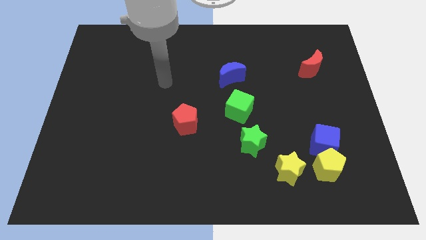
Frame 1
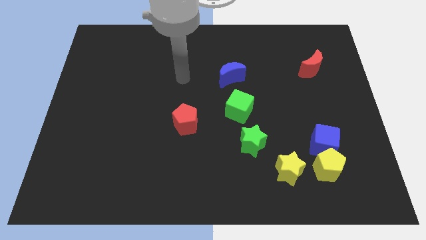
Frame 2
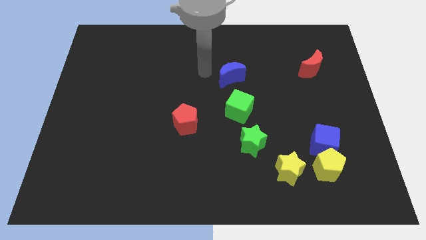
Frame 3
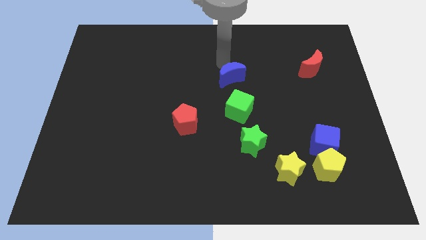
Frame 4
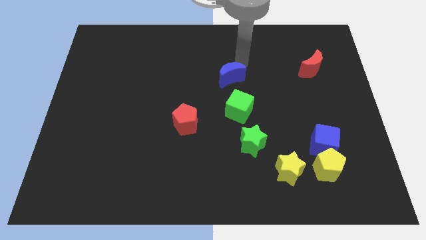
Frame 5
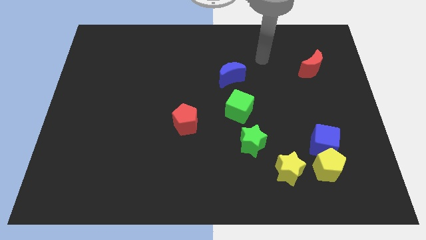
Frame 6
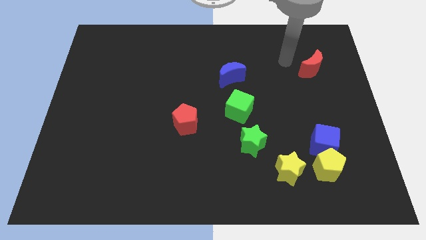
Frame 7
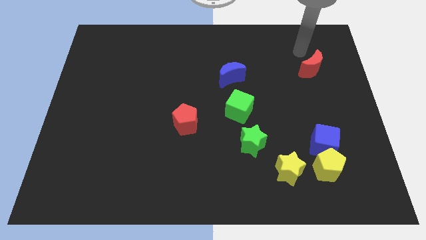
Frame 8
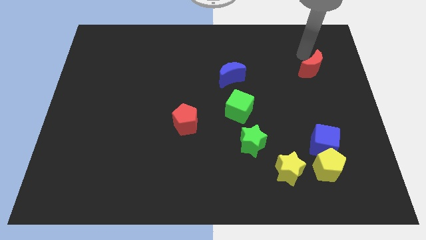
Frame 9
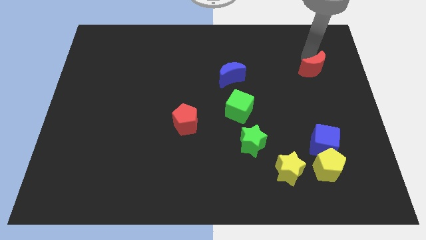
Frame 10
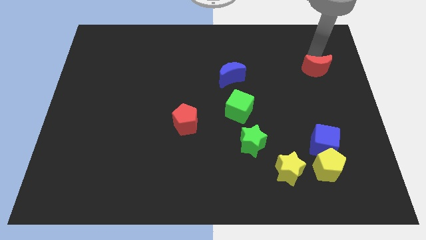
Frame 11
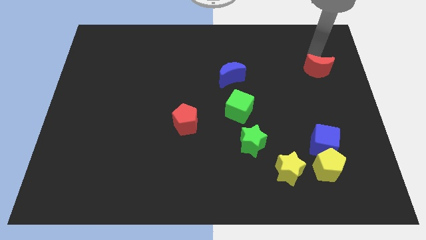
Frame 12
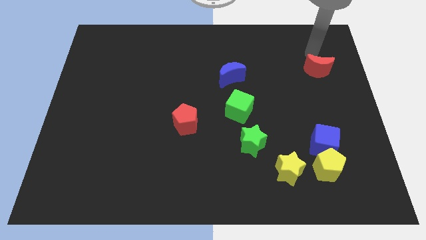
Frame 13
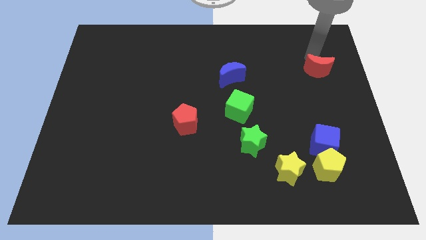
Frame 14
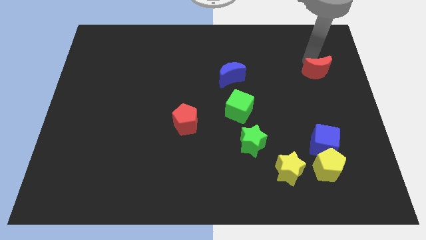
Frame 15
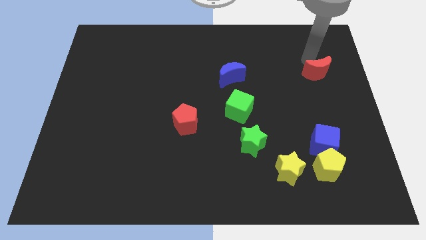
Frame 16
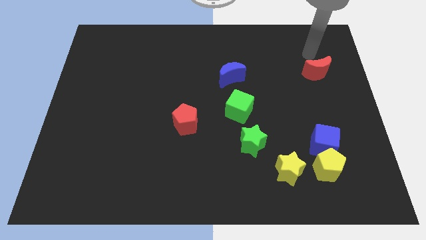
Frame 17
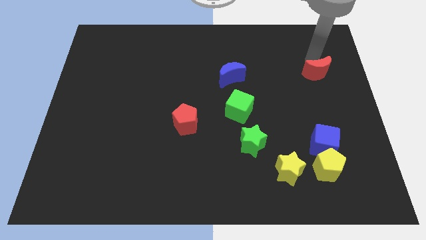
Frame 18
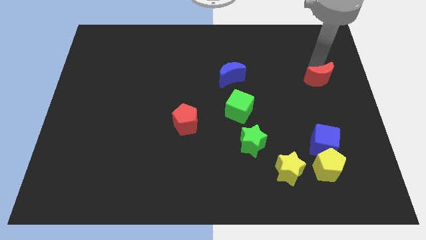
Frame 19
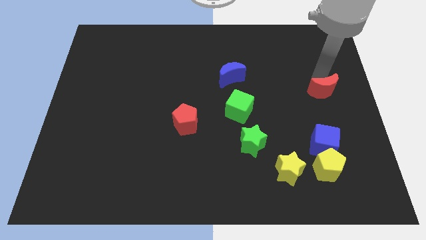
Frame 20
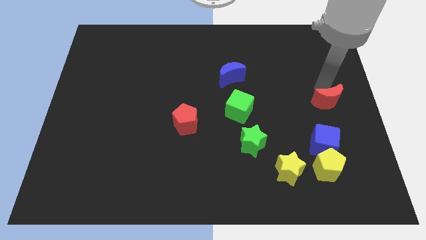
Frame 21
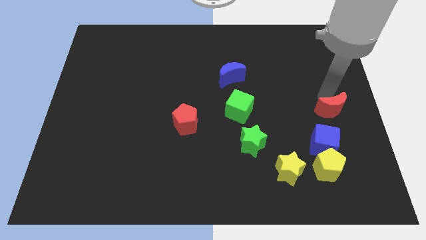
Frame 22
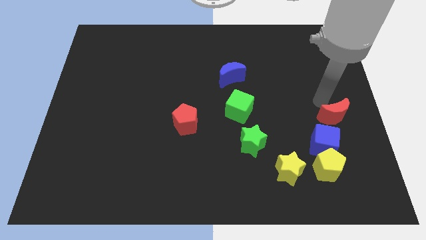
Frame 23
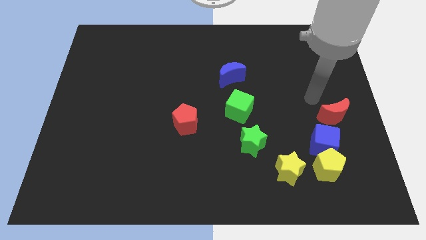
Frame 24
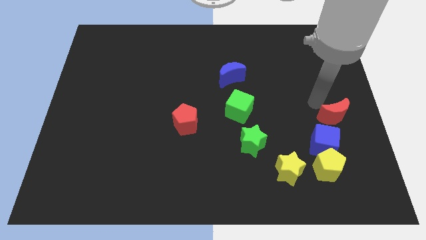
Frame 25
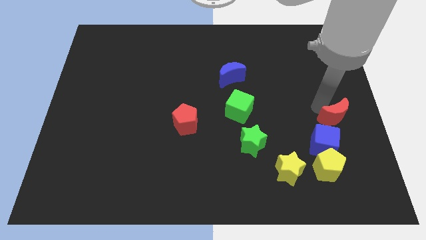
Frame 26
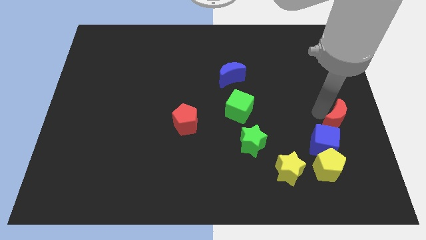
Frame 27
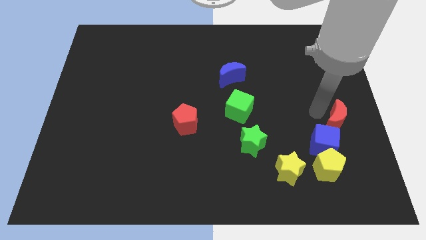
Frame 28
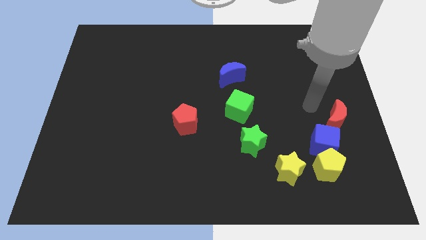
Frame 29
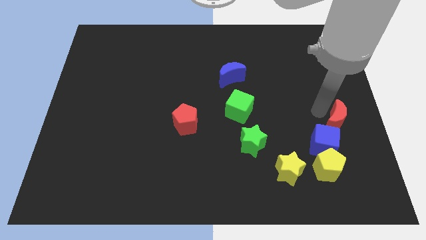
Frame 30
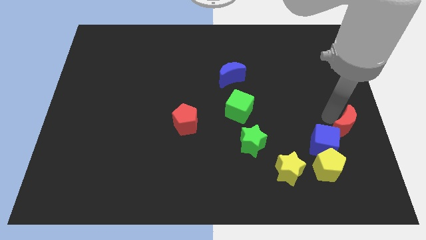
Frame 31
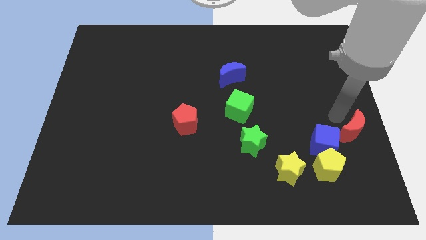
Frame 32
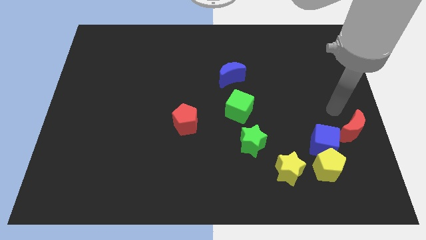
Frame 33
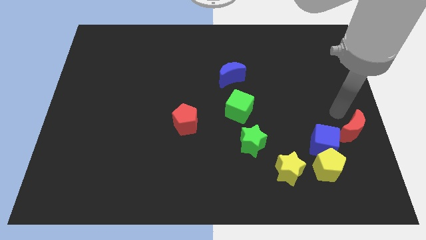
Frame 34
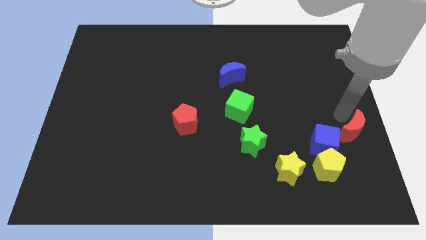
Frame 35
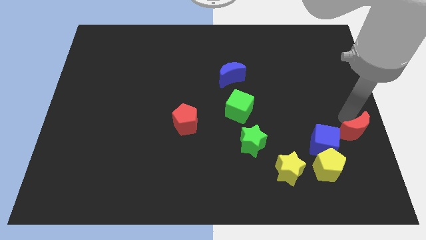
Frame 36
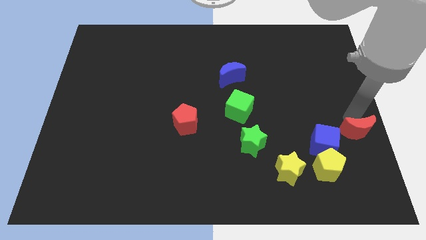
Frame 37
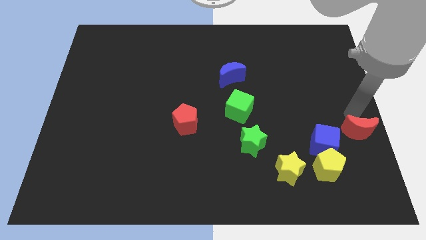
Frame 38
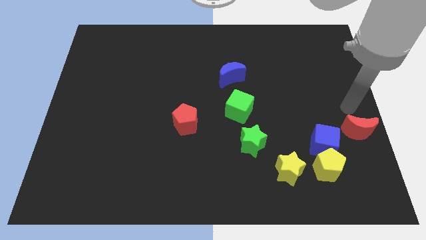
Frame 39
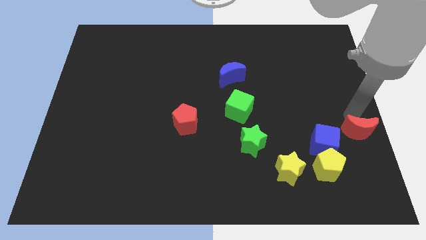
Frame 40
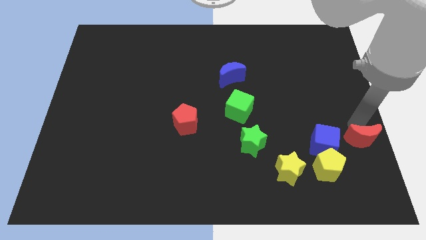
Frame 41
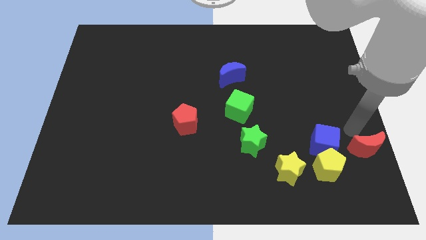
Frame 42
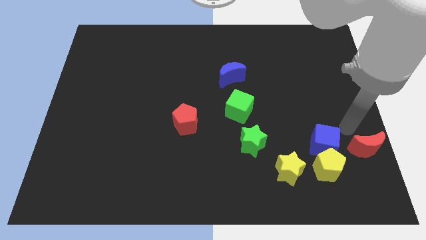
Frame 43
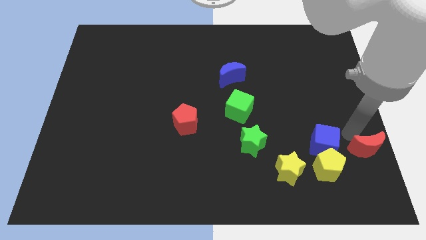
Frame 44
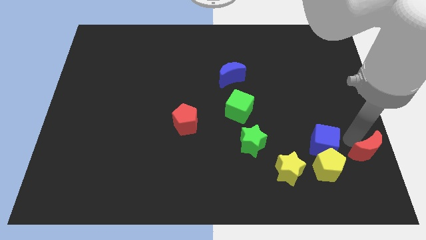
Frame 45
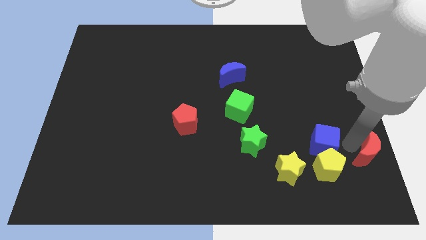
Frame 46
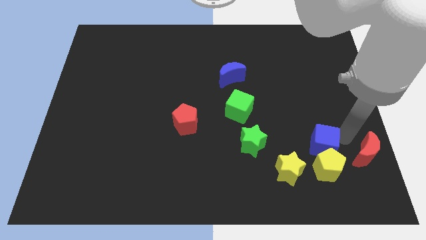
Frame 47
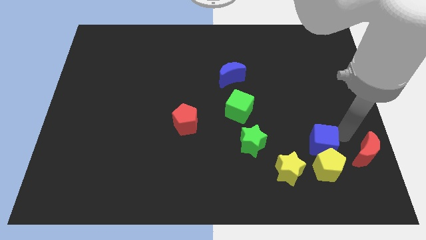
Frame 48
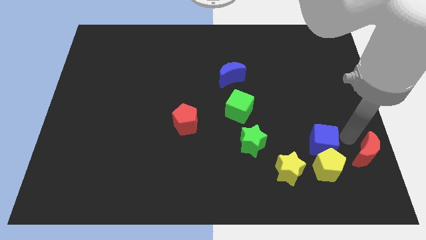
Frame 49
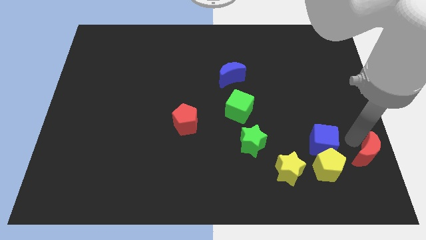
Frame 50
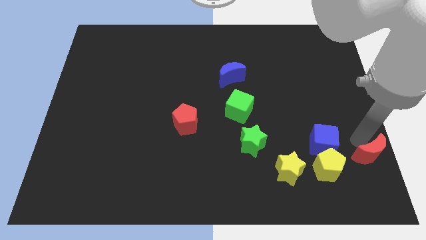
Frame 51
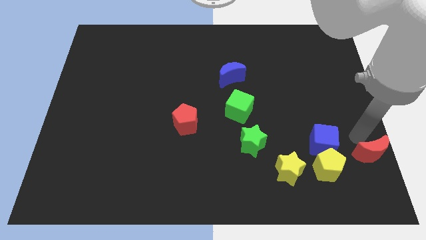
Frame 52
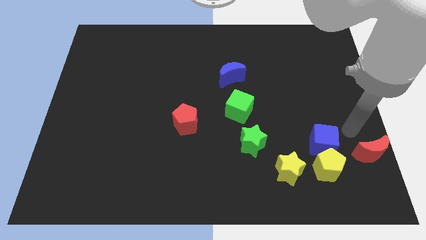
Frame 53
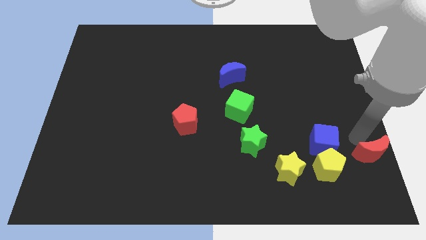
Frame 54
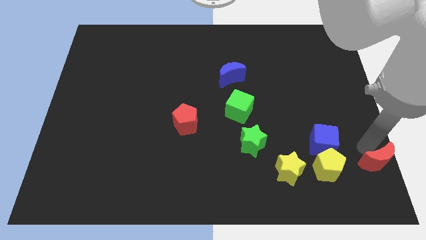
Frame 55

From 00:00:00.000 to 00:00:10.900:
put the red moon to the bottom right

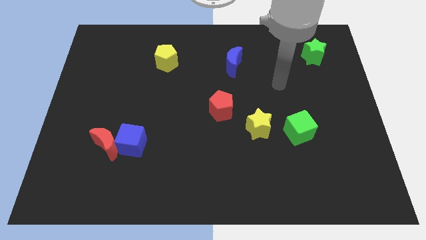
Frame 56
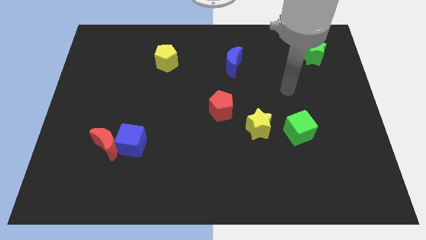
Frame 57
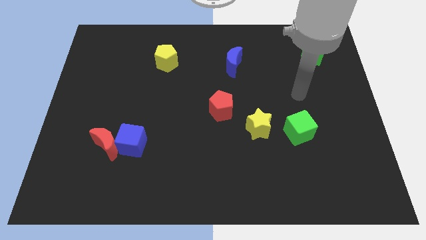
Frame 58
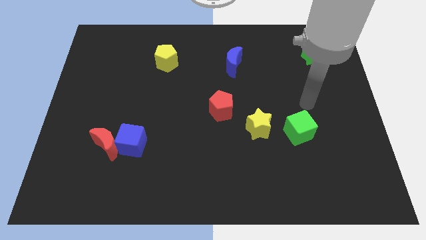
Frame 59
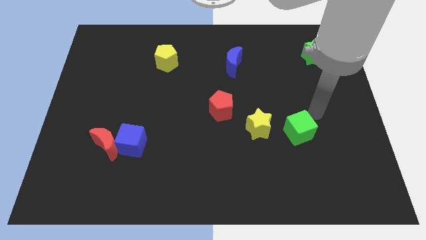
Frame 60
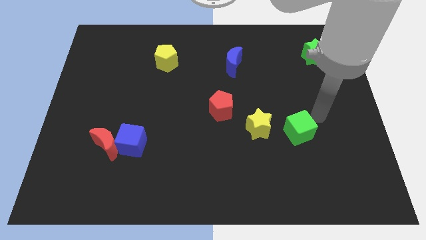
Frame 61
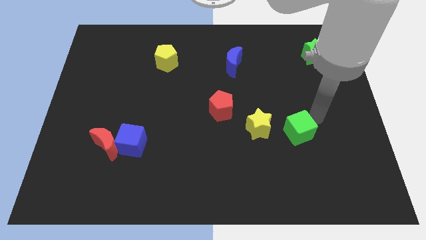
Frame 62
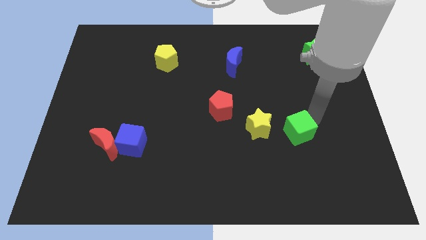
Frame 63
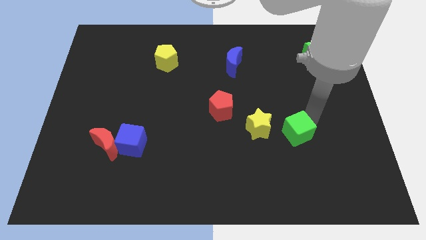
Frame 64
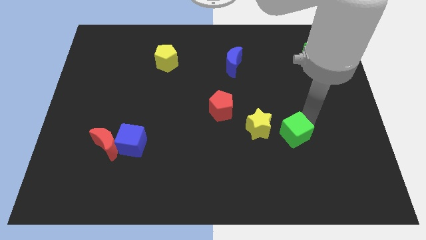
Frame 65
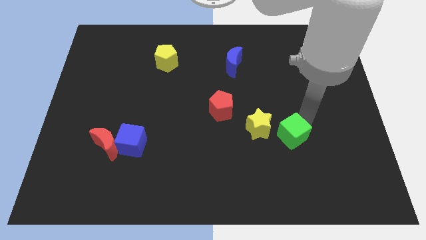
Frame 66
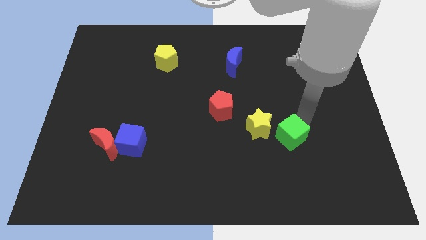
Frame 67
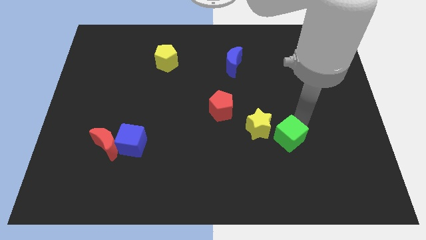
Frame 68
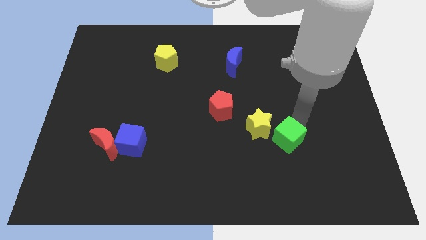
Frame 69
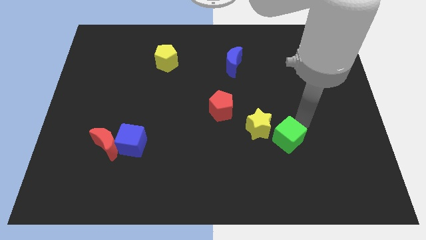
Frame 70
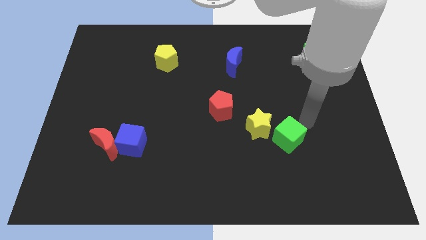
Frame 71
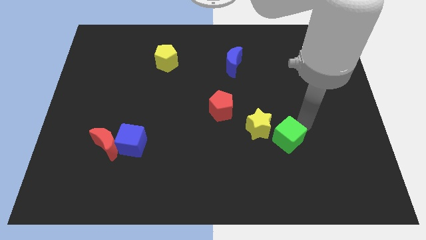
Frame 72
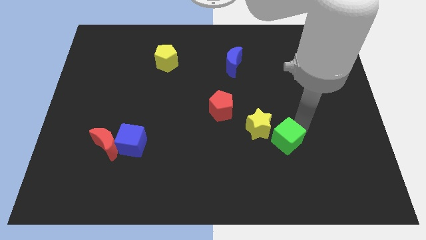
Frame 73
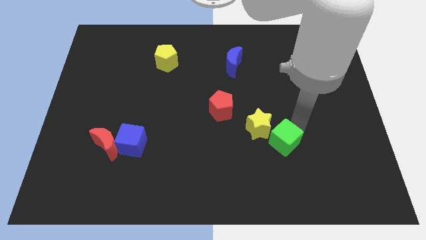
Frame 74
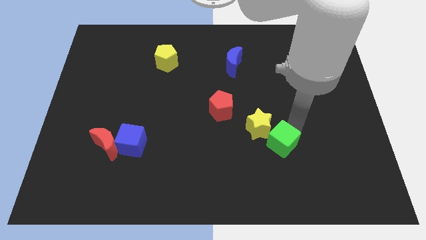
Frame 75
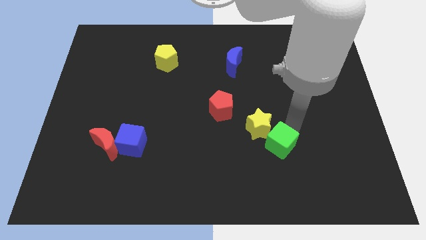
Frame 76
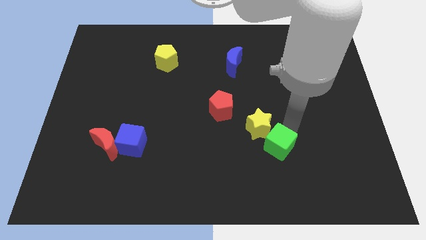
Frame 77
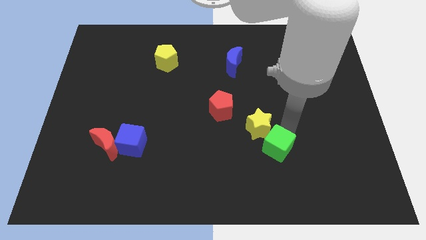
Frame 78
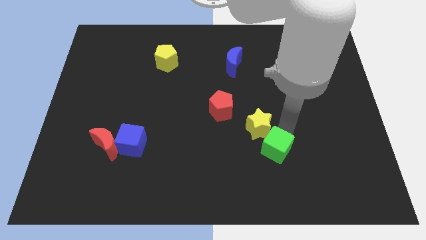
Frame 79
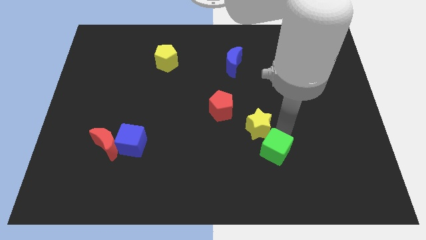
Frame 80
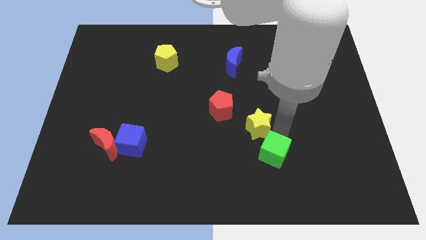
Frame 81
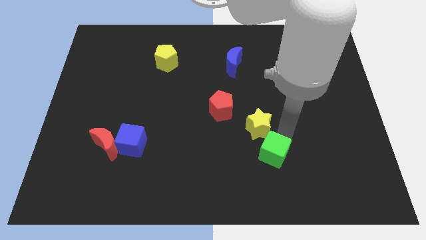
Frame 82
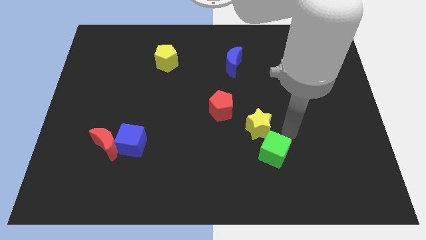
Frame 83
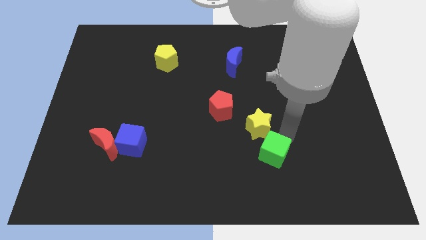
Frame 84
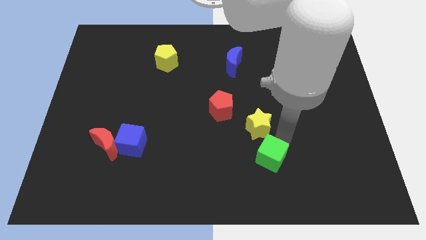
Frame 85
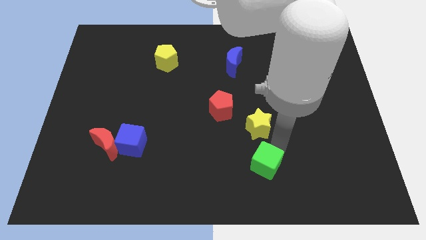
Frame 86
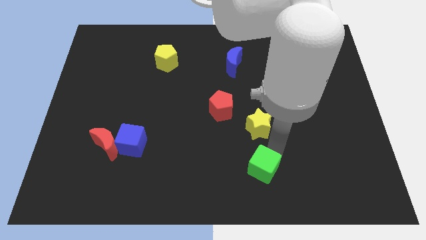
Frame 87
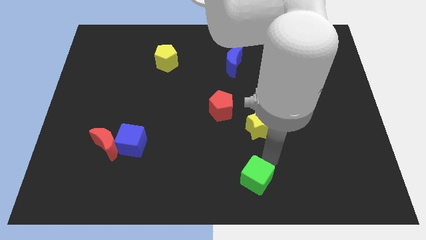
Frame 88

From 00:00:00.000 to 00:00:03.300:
move the green cube to the bottom side
